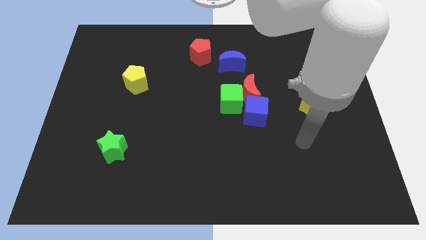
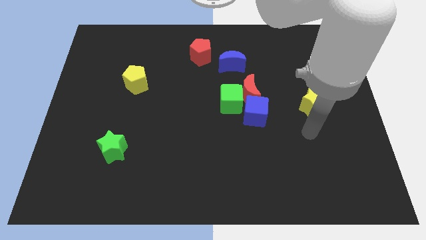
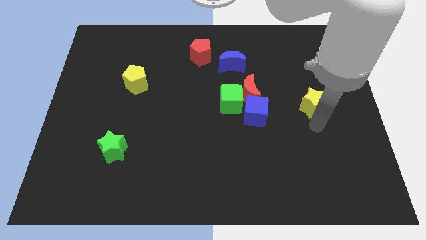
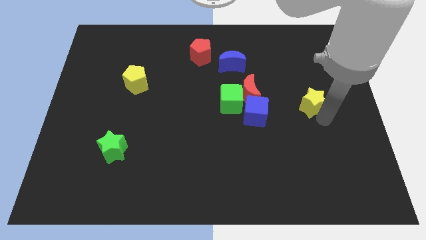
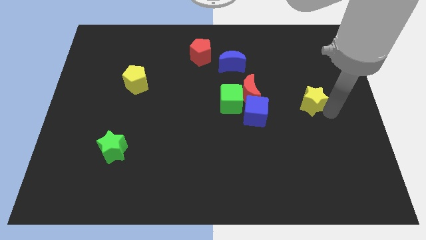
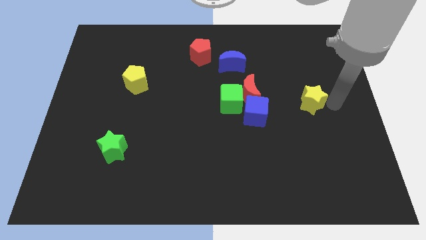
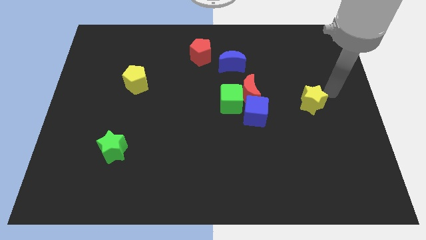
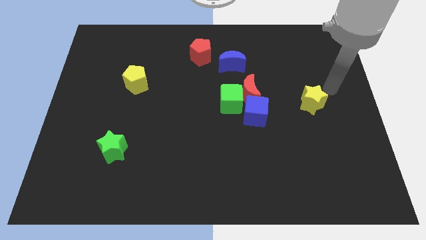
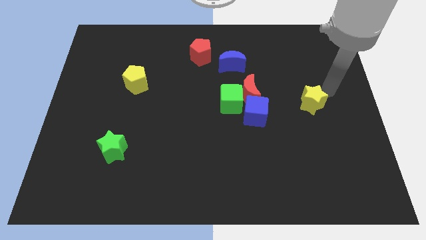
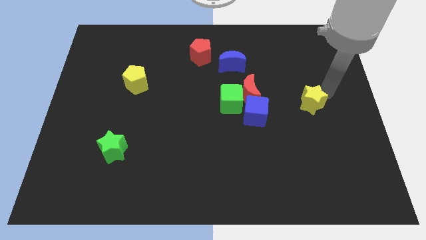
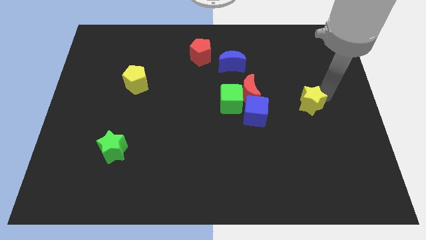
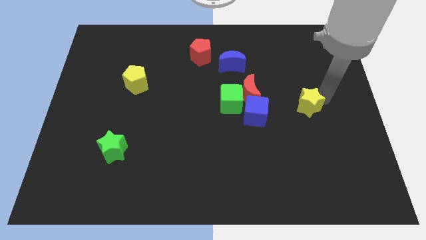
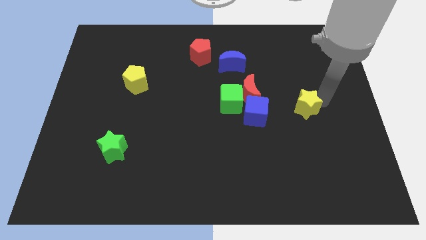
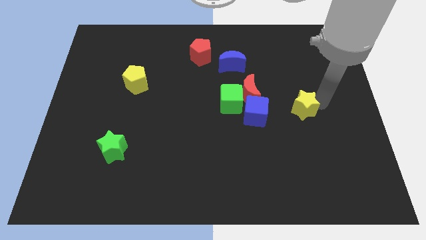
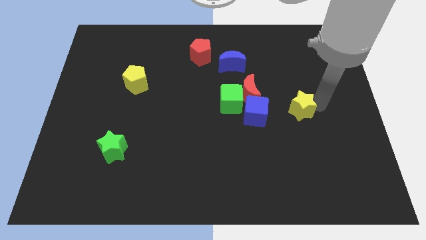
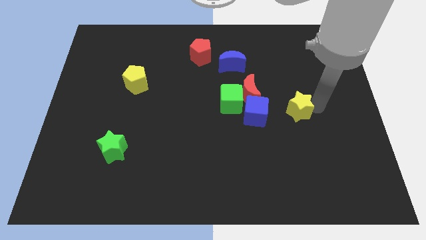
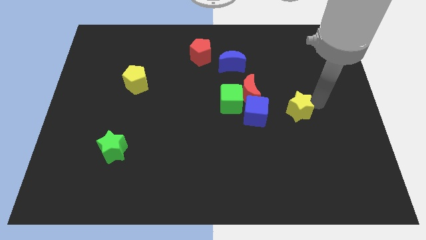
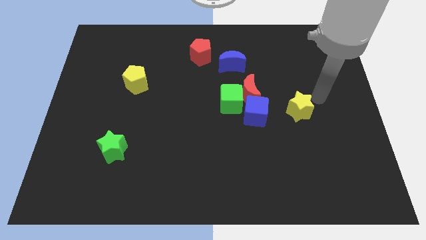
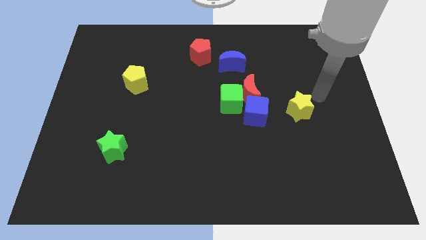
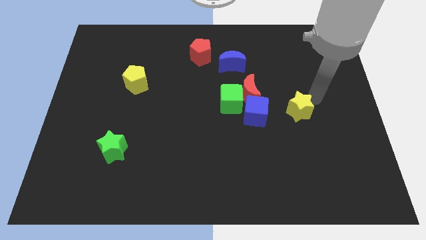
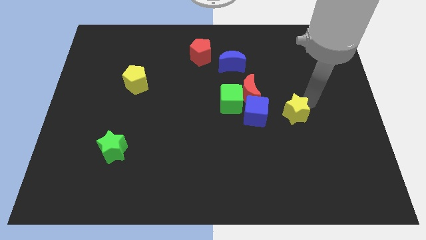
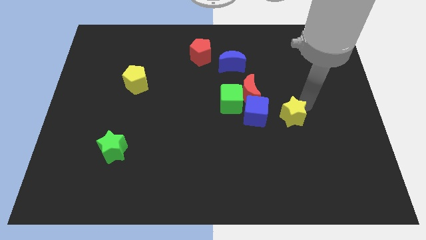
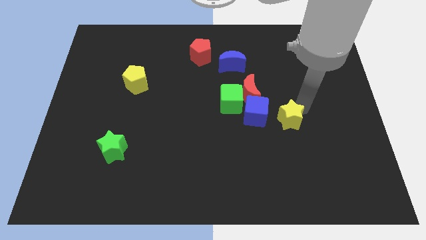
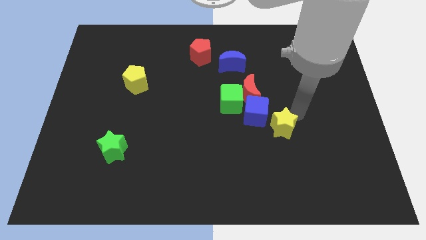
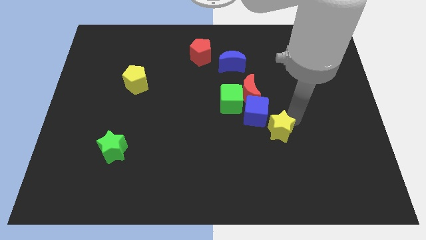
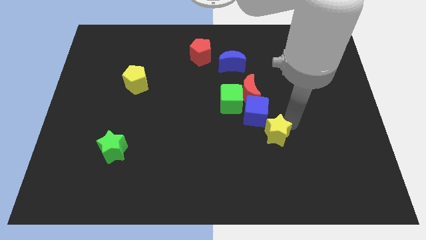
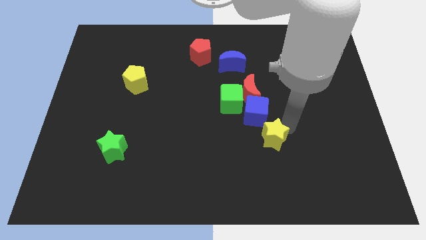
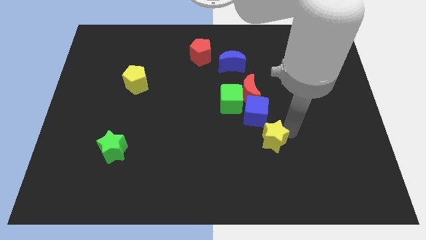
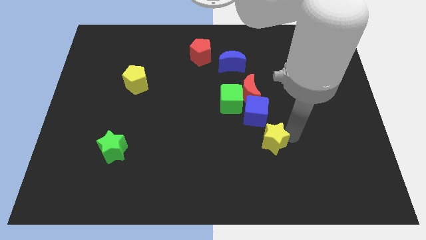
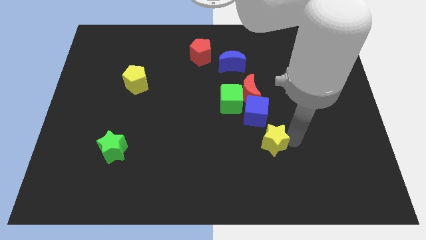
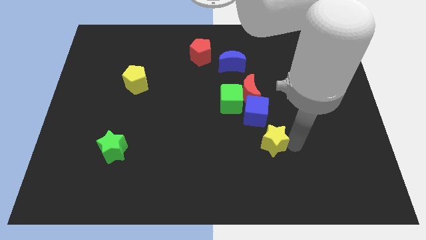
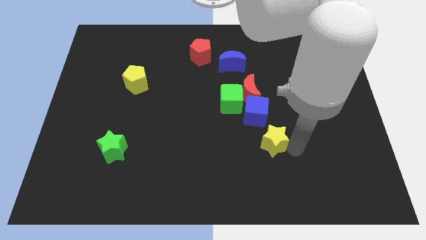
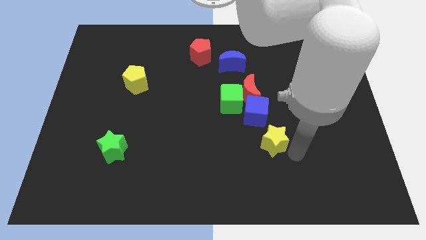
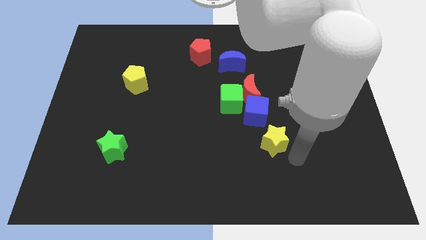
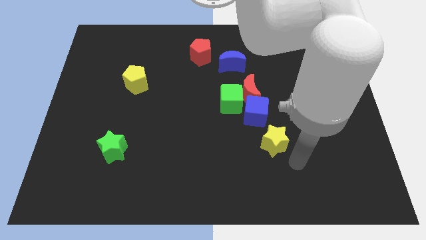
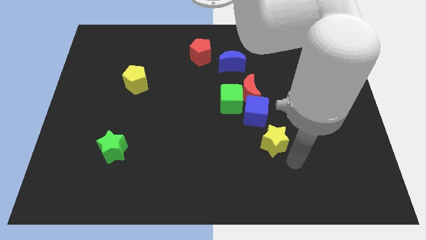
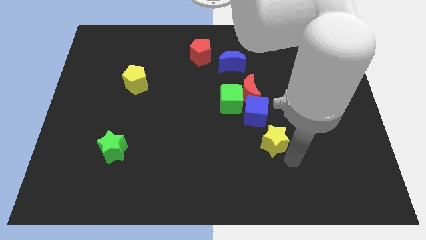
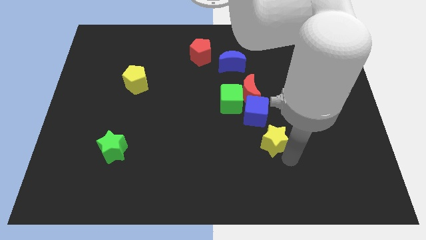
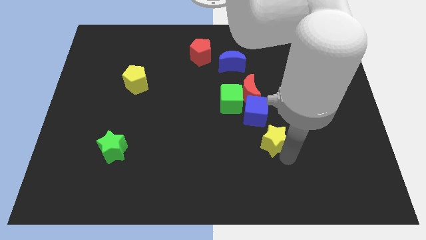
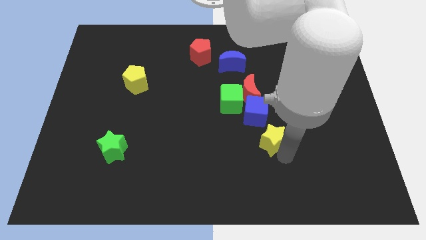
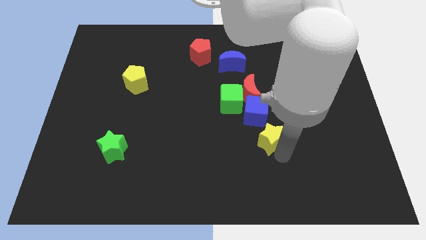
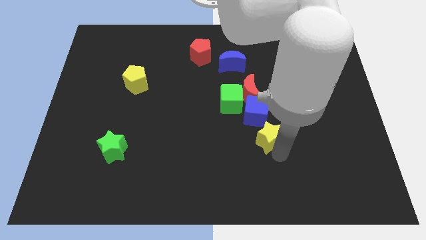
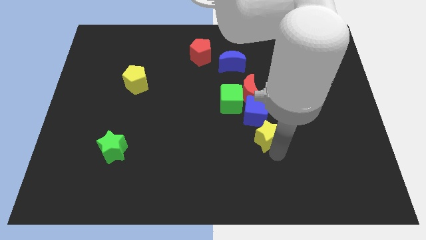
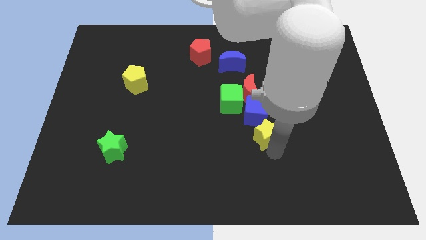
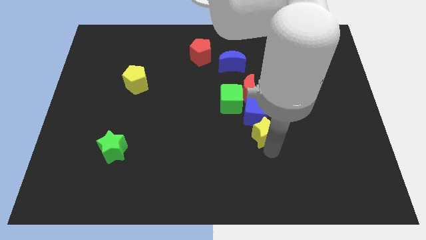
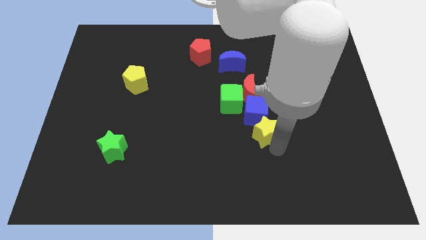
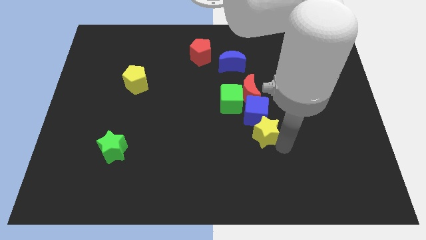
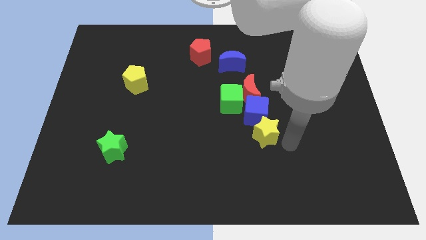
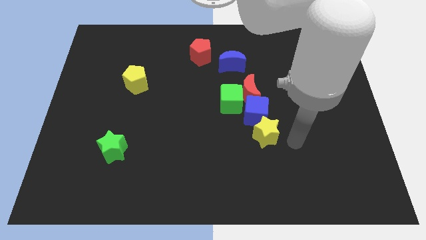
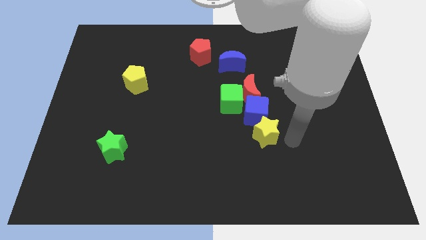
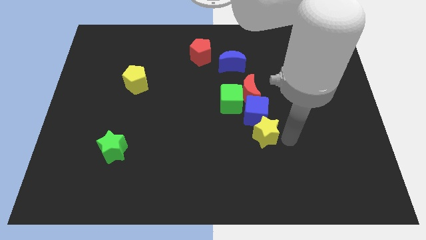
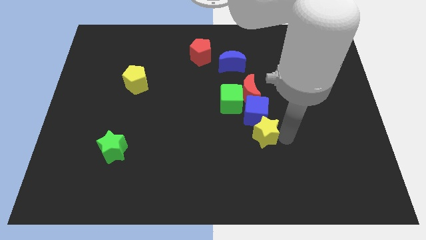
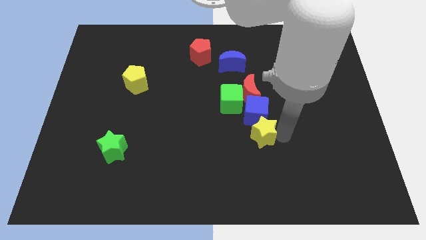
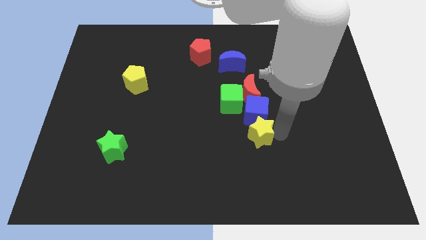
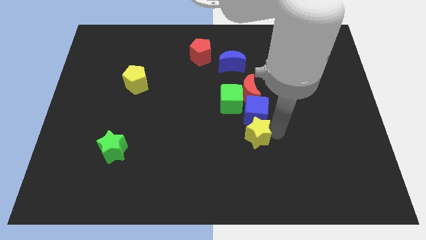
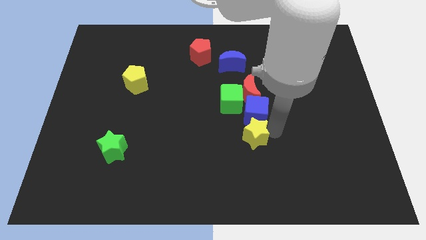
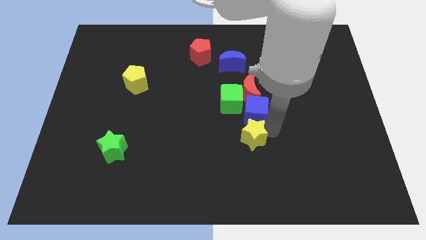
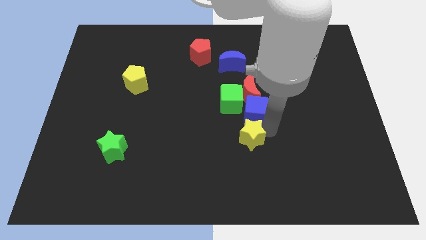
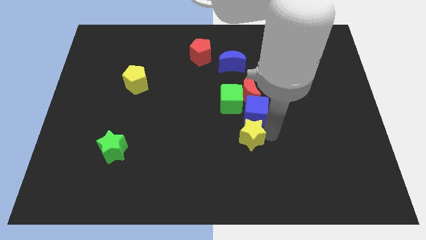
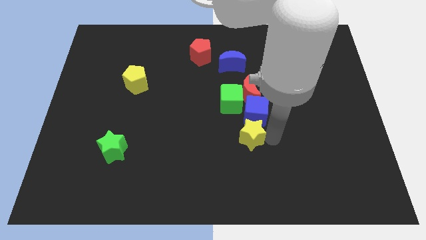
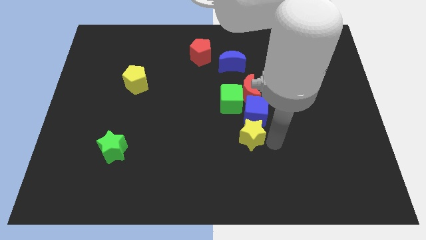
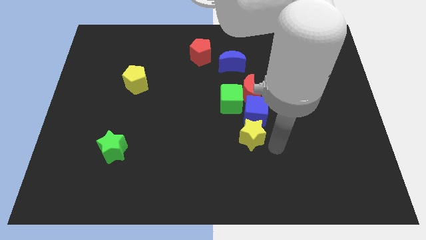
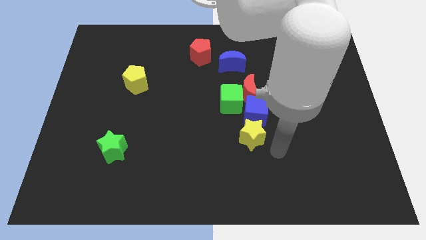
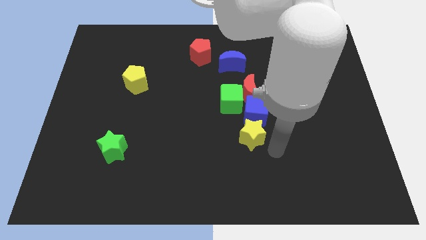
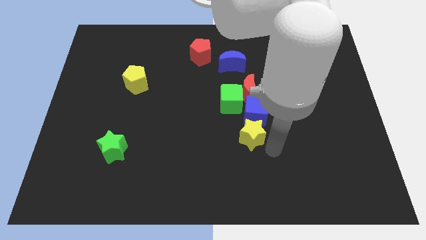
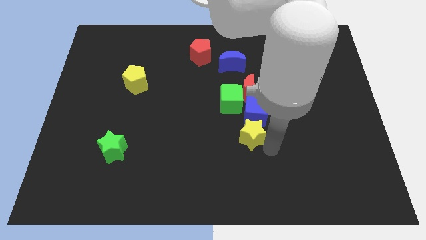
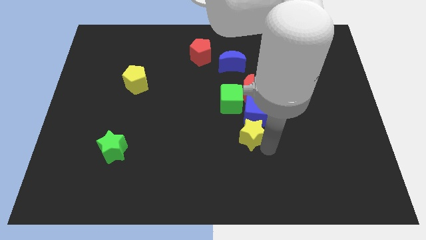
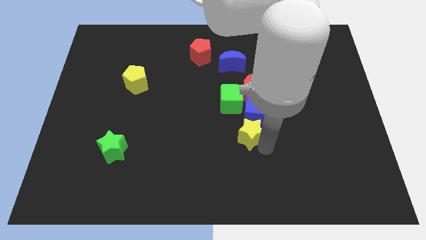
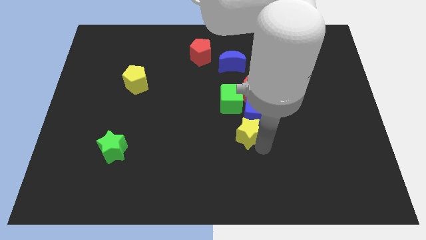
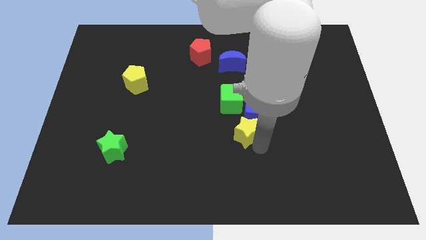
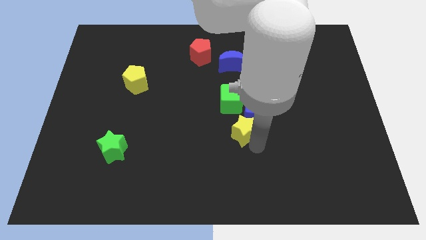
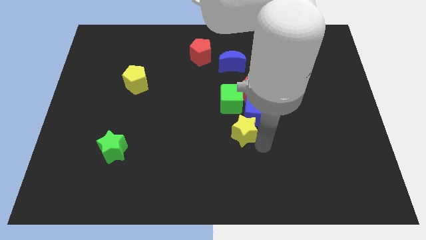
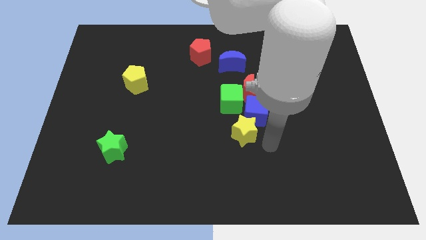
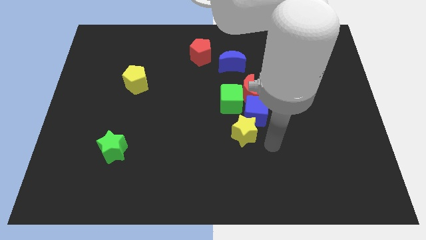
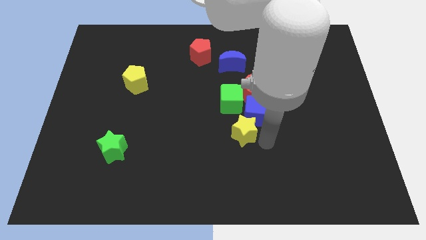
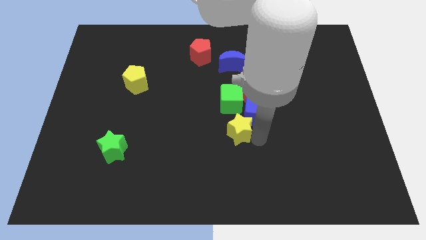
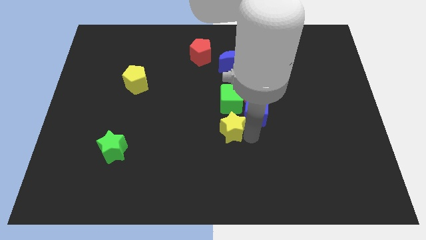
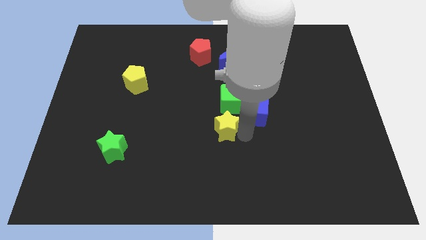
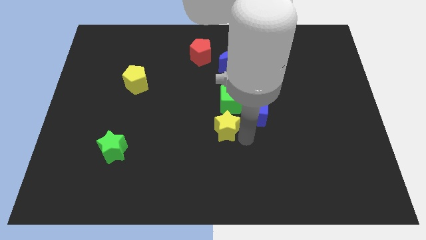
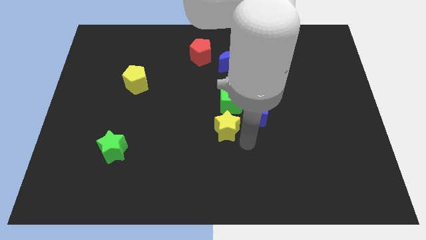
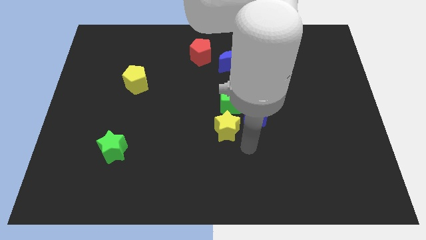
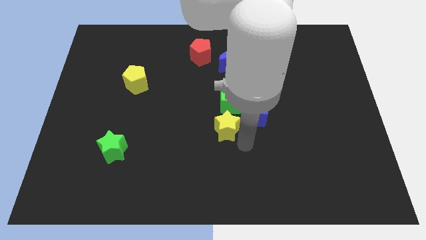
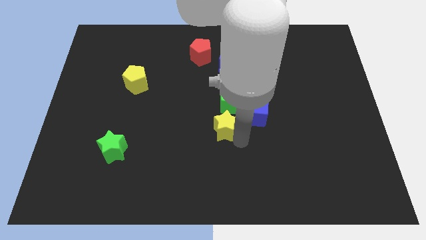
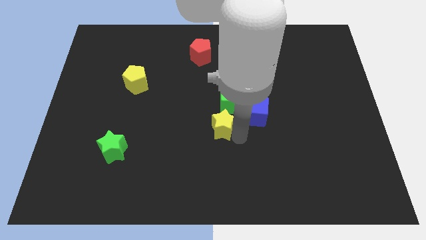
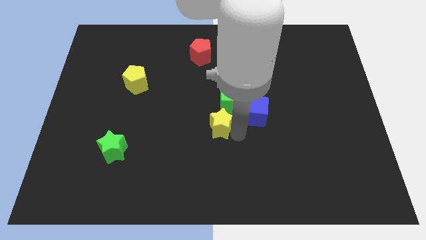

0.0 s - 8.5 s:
slide the yellow star to the left

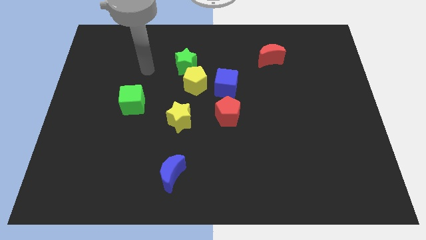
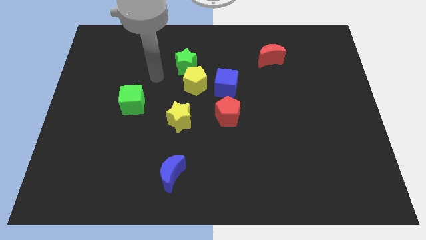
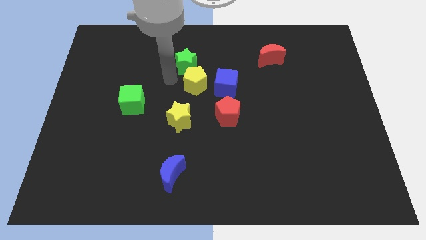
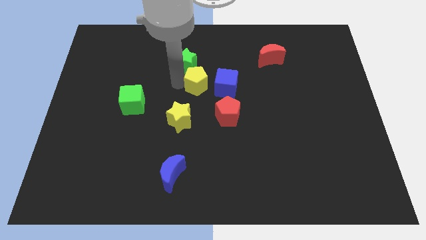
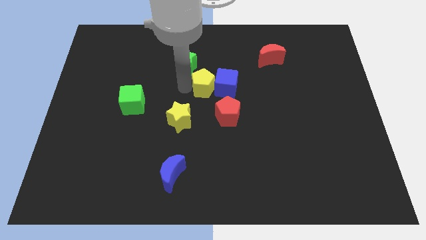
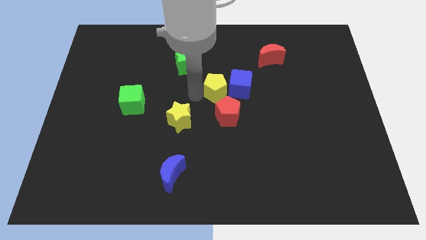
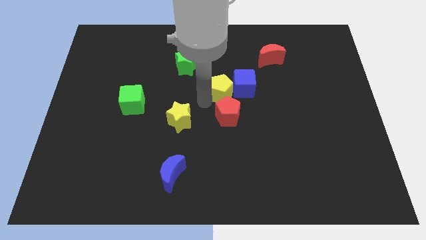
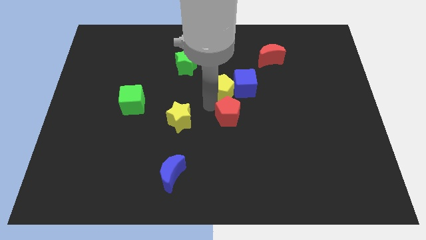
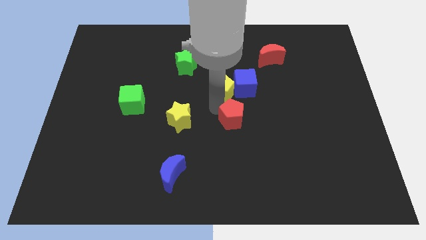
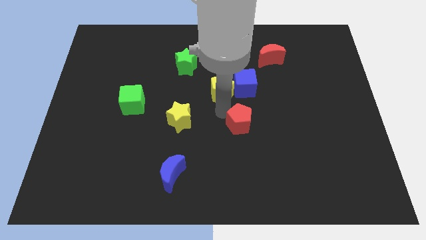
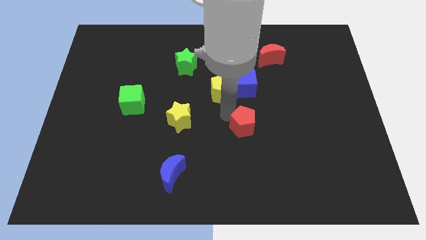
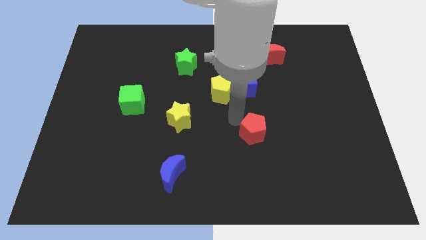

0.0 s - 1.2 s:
move the red pentagon diagonally downwards and to the right a bit
